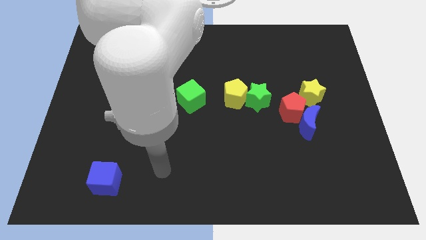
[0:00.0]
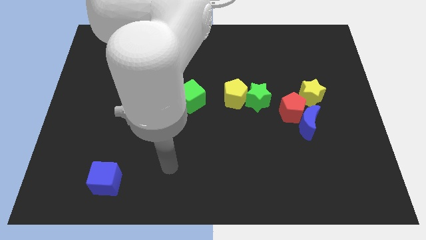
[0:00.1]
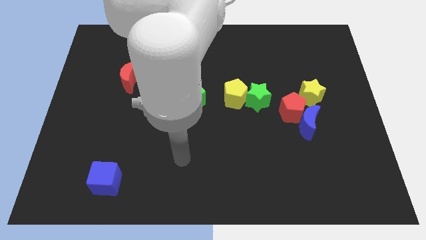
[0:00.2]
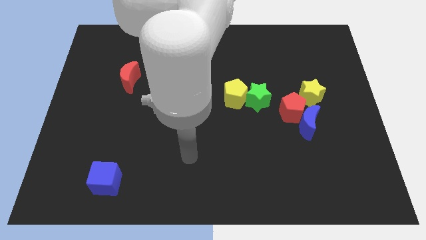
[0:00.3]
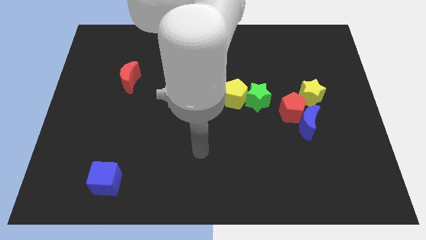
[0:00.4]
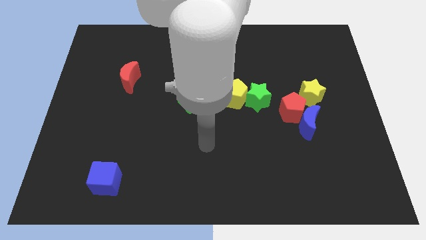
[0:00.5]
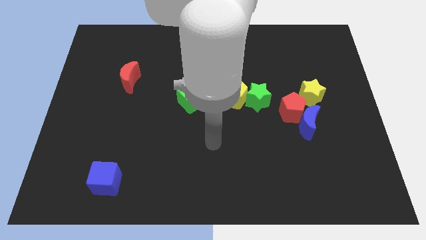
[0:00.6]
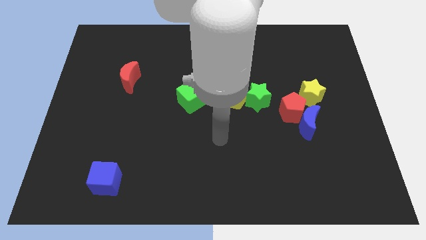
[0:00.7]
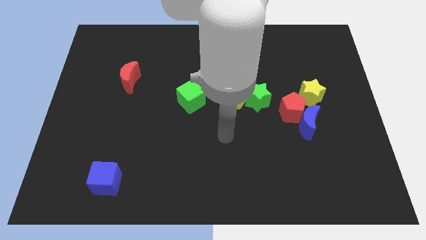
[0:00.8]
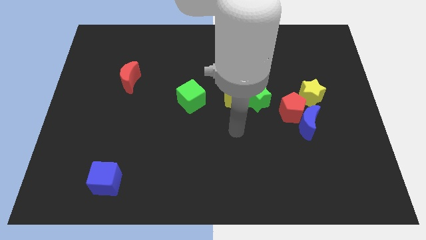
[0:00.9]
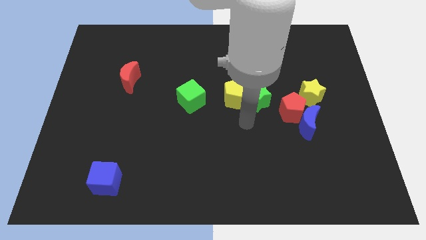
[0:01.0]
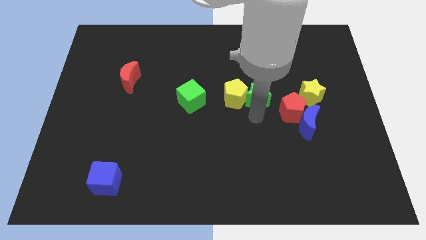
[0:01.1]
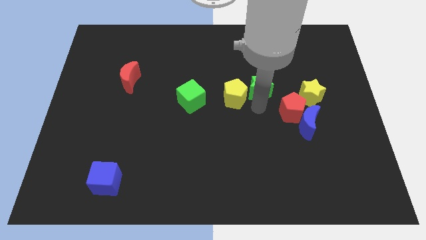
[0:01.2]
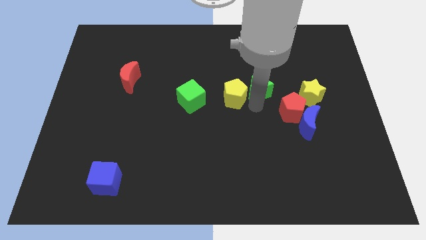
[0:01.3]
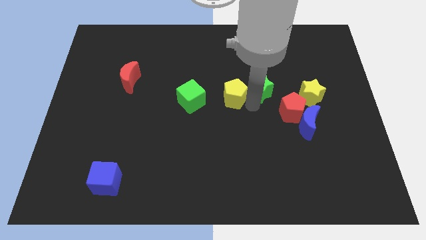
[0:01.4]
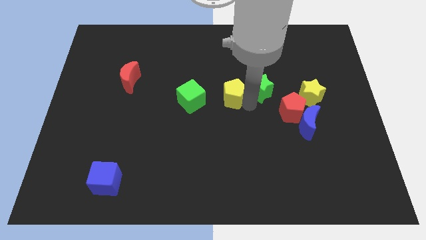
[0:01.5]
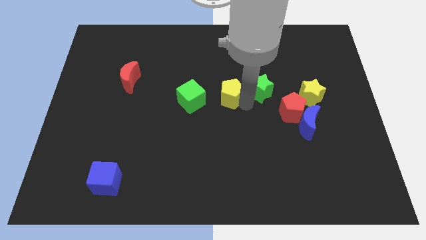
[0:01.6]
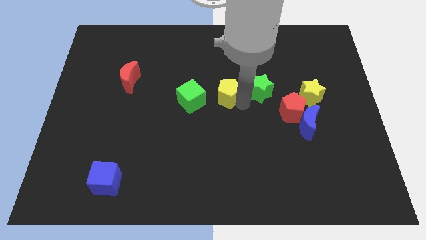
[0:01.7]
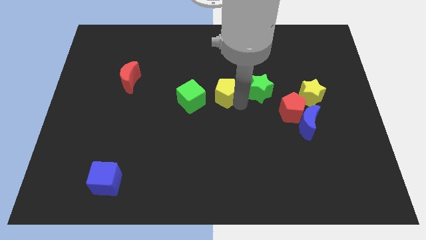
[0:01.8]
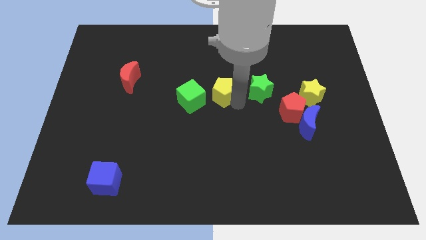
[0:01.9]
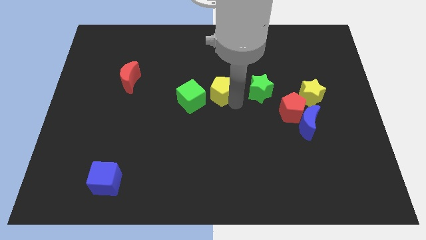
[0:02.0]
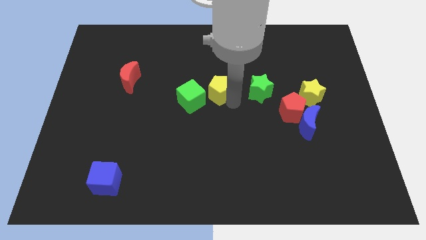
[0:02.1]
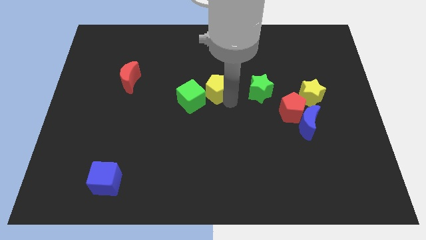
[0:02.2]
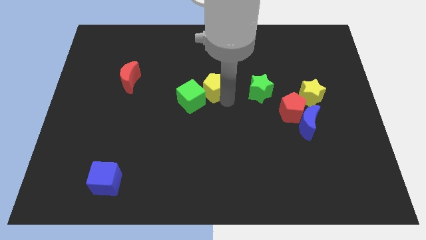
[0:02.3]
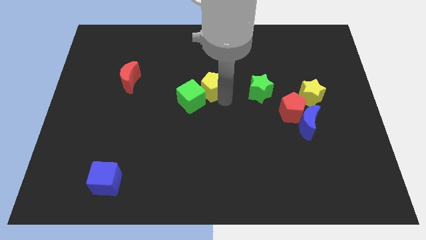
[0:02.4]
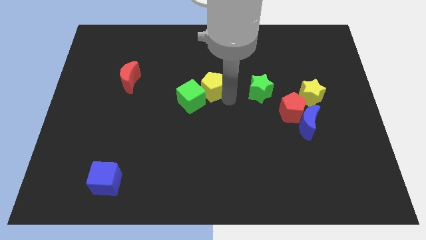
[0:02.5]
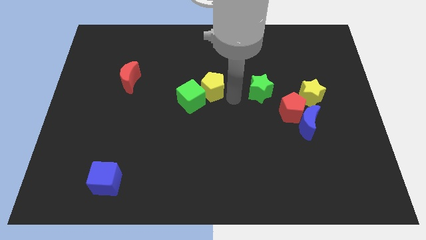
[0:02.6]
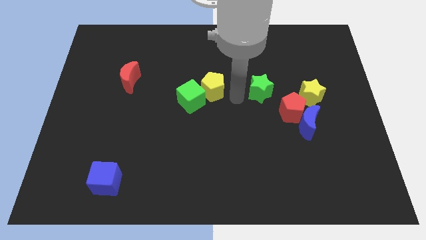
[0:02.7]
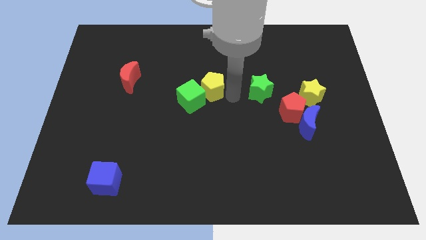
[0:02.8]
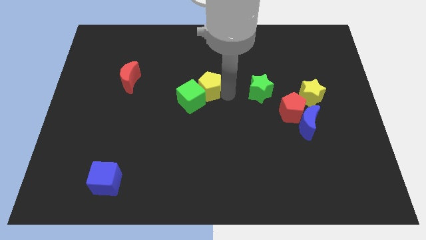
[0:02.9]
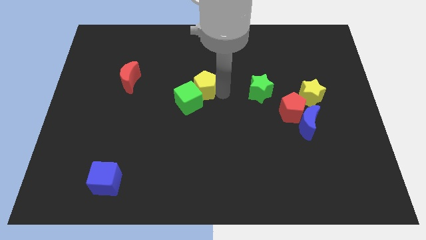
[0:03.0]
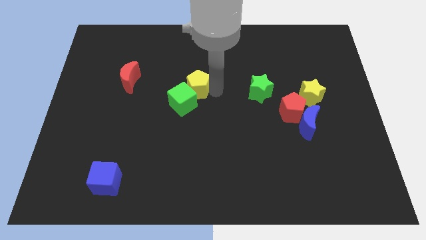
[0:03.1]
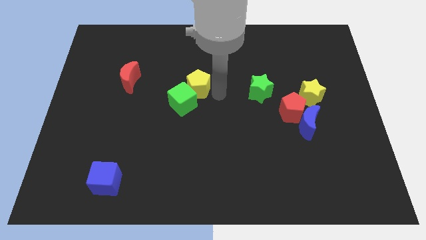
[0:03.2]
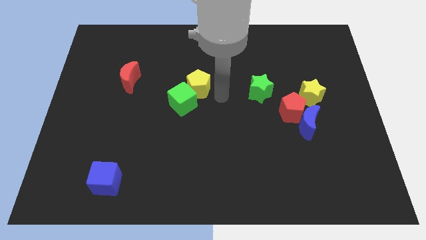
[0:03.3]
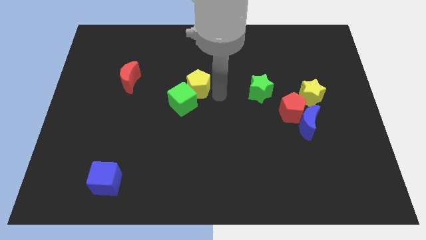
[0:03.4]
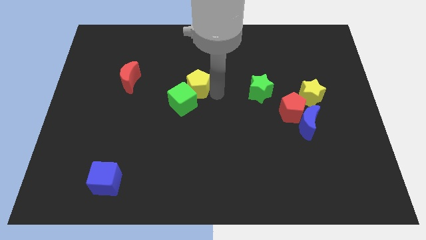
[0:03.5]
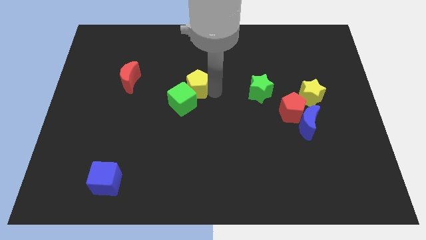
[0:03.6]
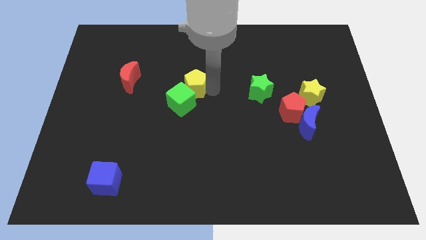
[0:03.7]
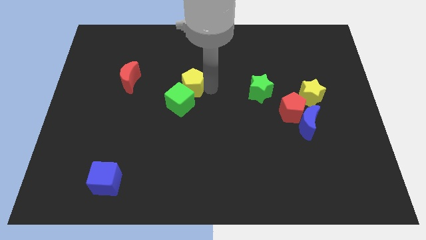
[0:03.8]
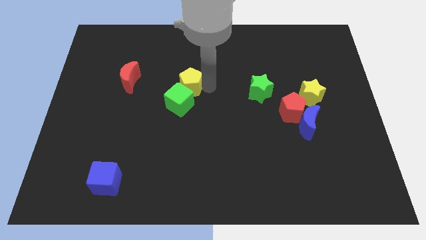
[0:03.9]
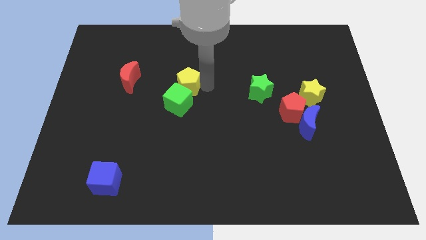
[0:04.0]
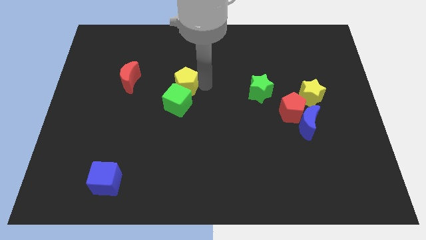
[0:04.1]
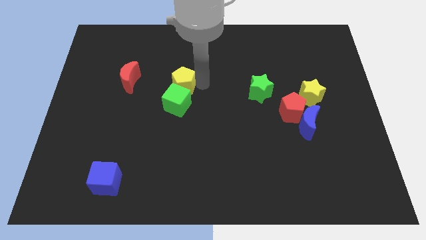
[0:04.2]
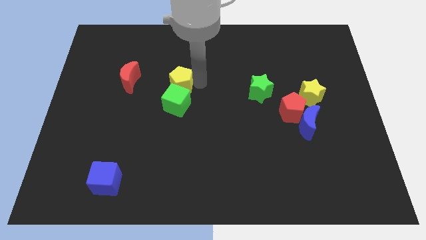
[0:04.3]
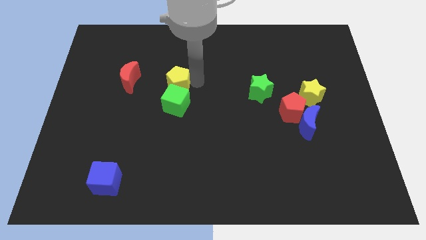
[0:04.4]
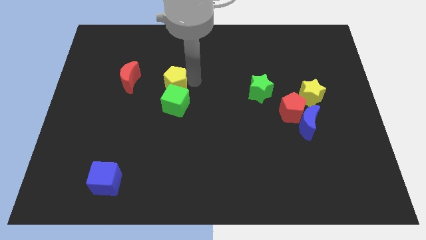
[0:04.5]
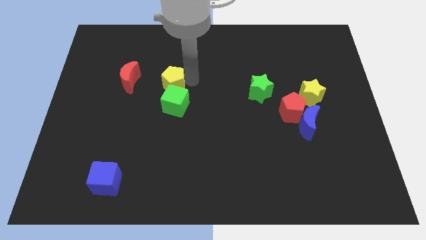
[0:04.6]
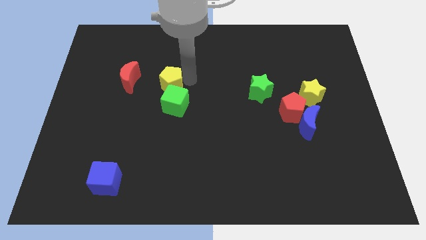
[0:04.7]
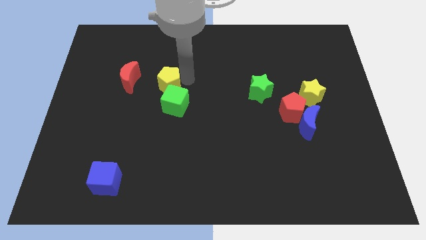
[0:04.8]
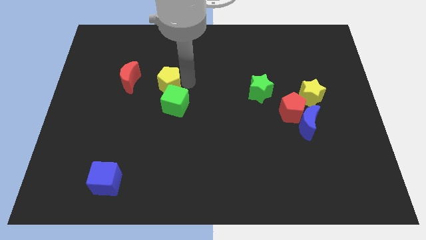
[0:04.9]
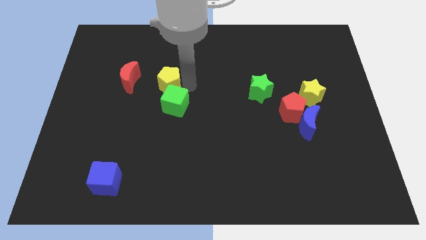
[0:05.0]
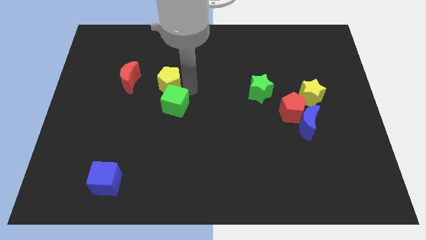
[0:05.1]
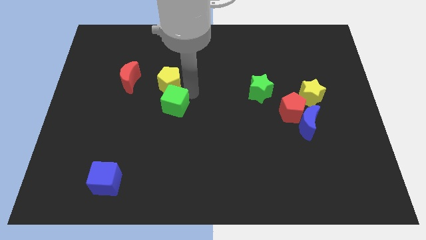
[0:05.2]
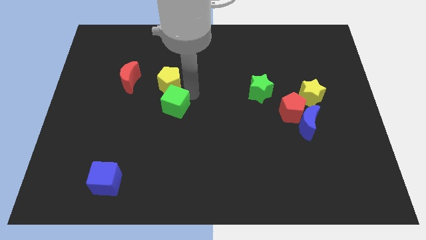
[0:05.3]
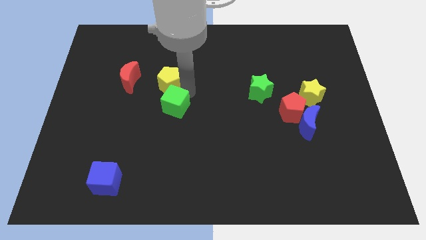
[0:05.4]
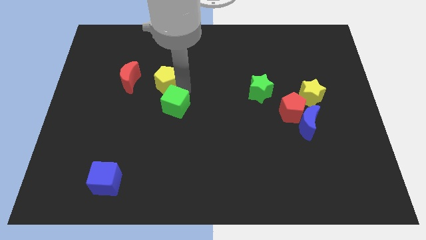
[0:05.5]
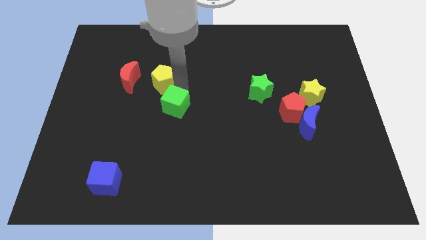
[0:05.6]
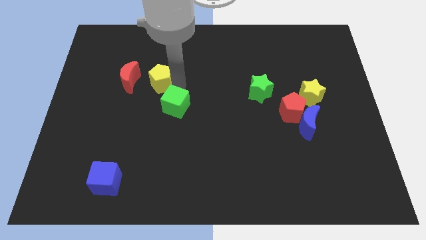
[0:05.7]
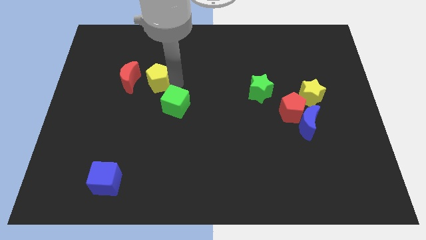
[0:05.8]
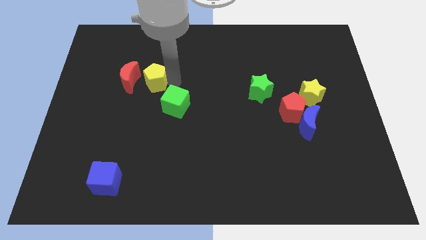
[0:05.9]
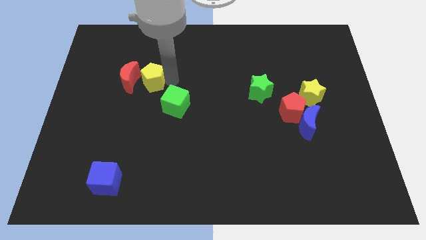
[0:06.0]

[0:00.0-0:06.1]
move the yellow pentagon to the red moon
